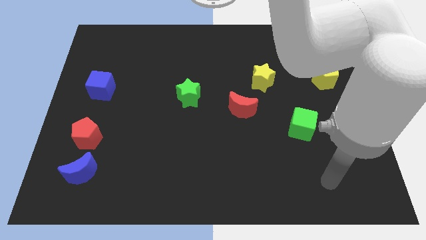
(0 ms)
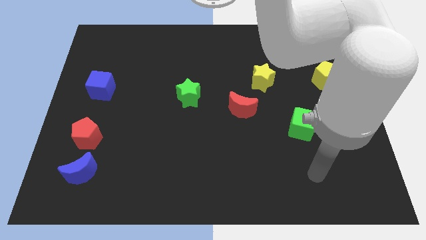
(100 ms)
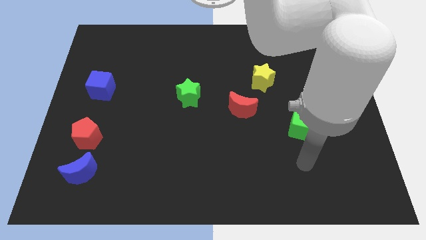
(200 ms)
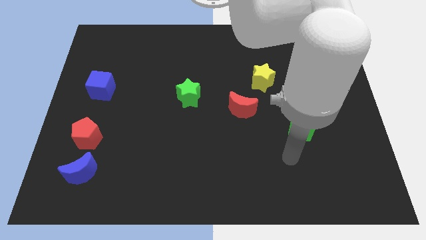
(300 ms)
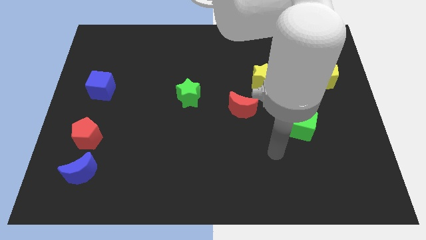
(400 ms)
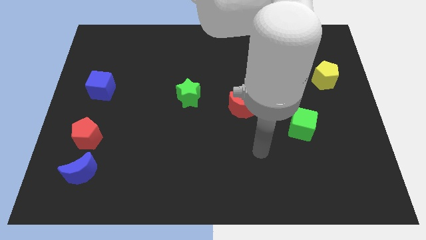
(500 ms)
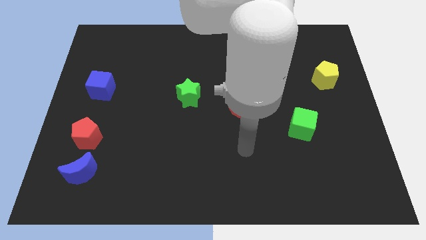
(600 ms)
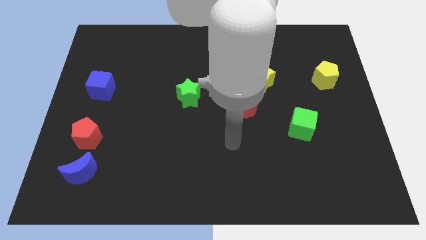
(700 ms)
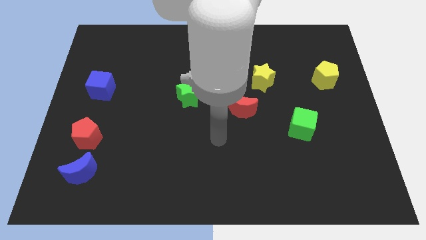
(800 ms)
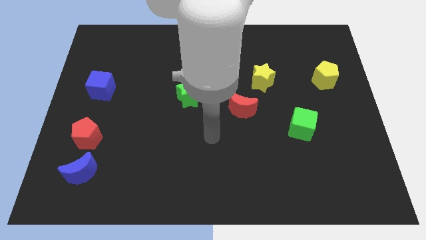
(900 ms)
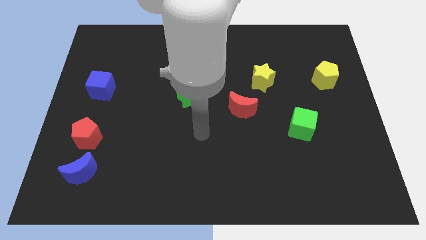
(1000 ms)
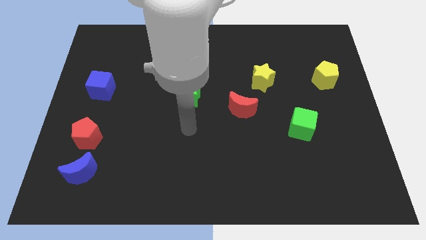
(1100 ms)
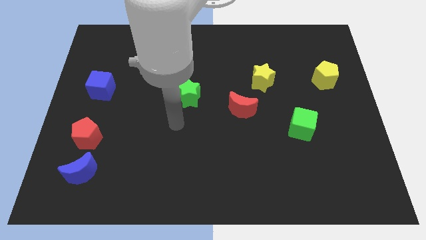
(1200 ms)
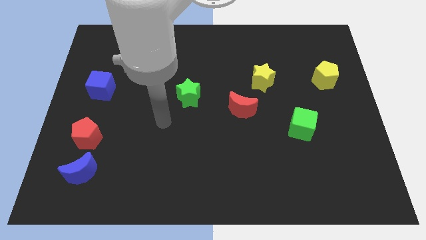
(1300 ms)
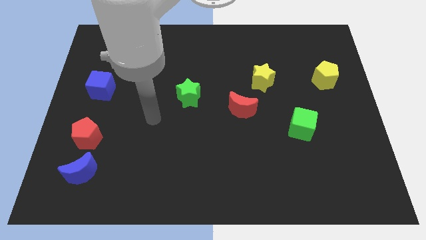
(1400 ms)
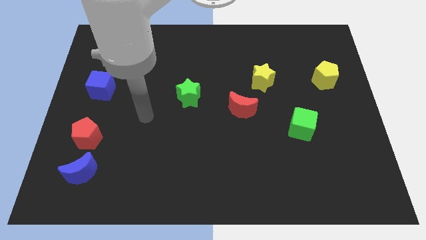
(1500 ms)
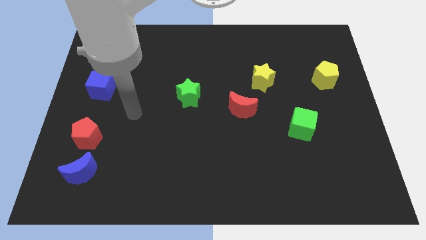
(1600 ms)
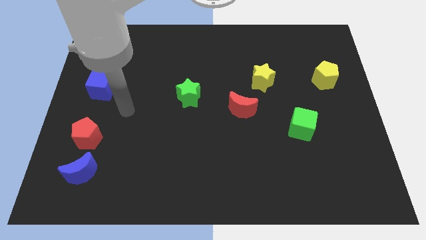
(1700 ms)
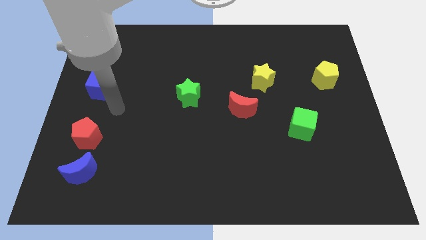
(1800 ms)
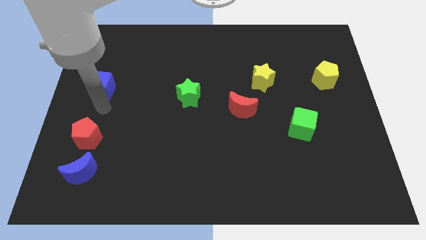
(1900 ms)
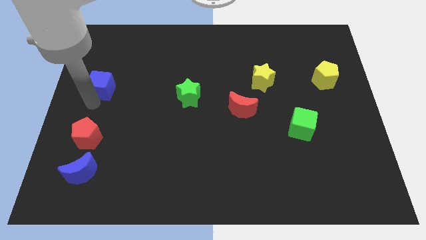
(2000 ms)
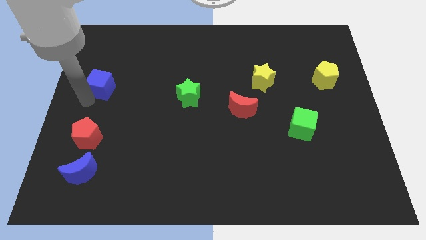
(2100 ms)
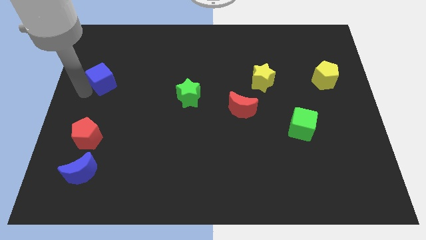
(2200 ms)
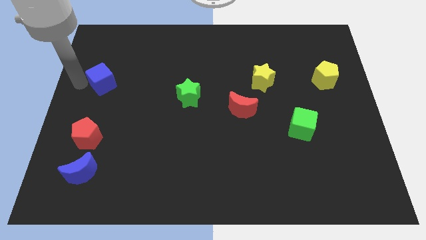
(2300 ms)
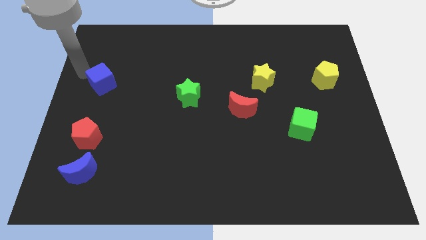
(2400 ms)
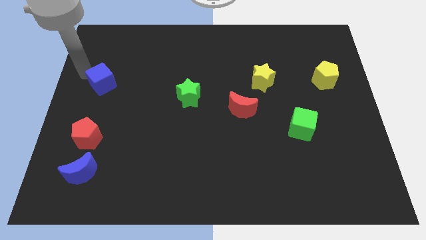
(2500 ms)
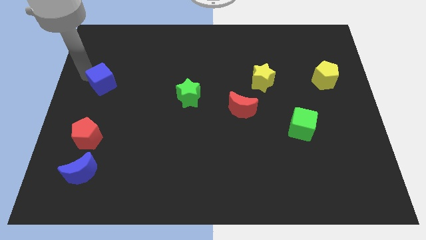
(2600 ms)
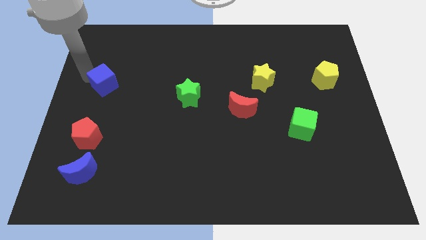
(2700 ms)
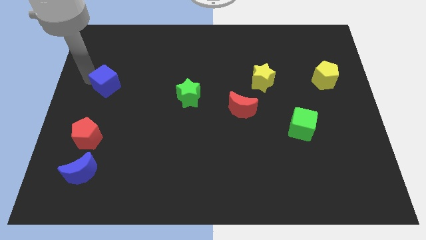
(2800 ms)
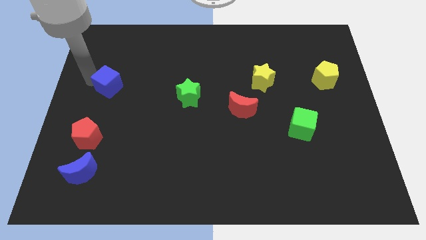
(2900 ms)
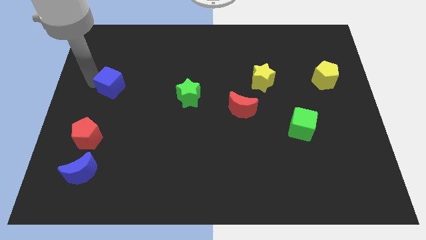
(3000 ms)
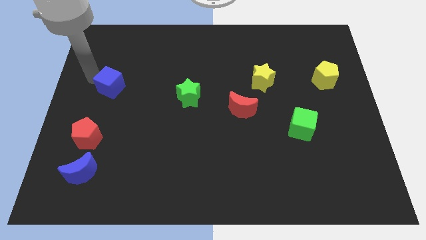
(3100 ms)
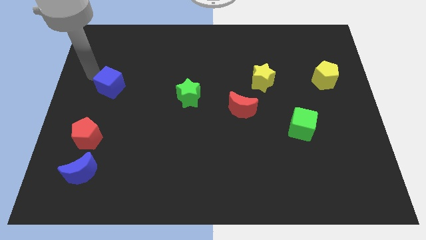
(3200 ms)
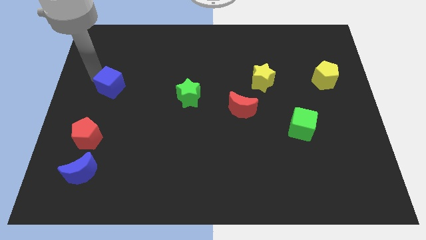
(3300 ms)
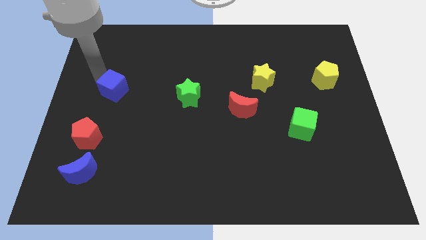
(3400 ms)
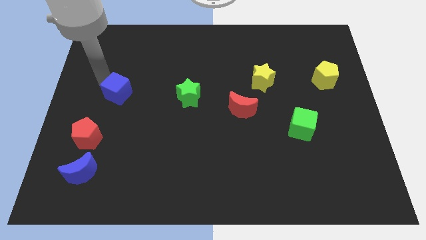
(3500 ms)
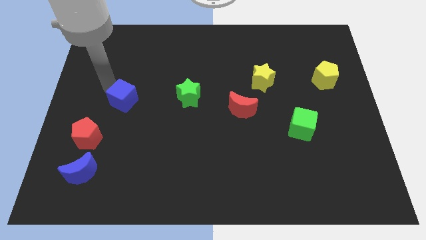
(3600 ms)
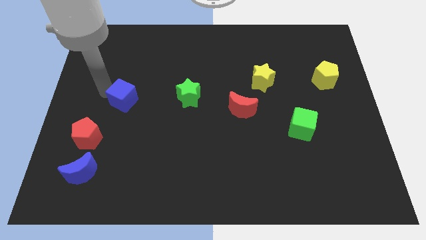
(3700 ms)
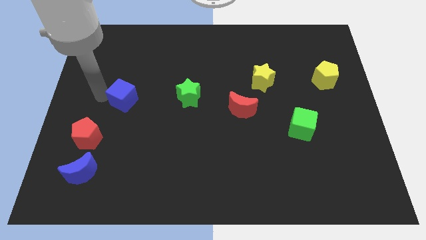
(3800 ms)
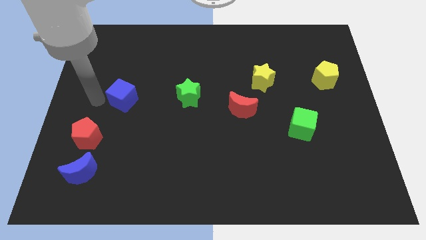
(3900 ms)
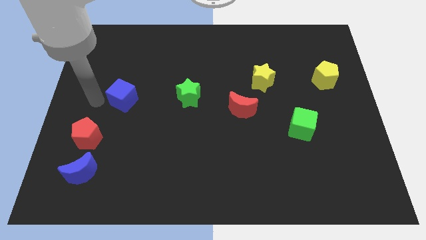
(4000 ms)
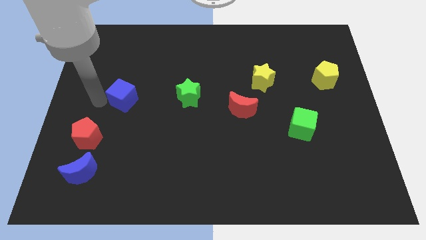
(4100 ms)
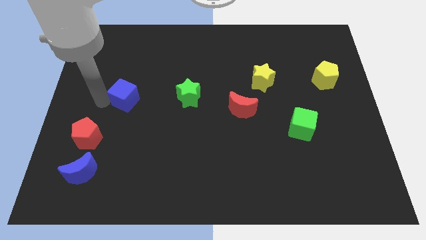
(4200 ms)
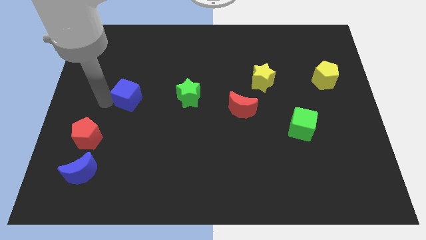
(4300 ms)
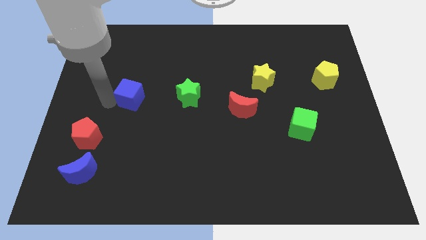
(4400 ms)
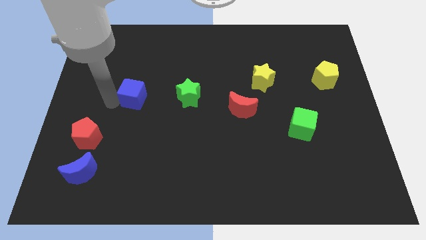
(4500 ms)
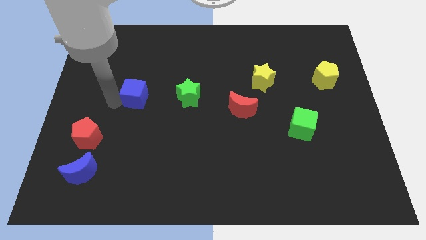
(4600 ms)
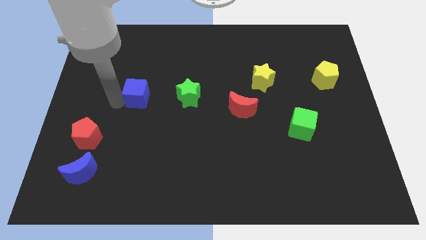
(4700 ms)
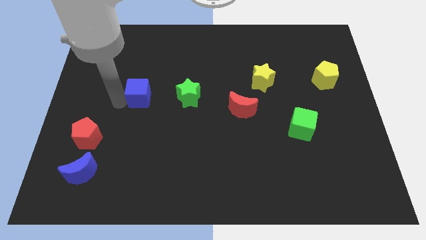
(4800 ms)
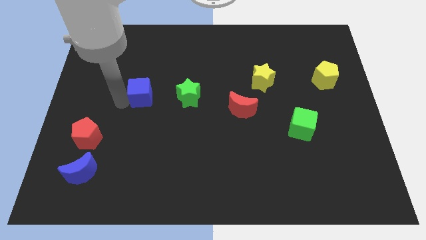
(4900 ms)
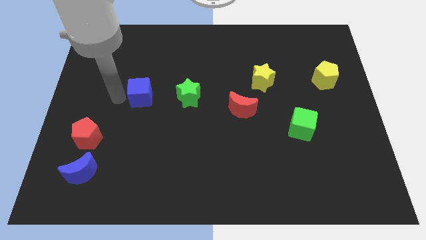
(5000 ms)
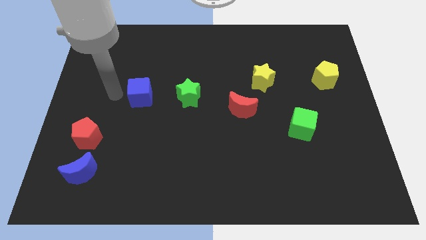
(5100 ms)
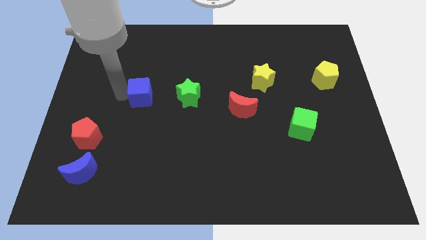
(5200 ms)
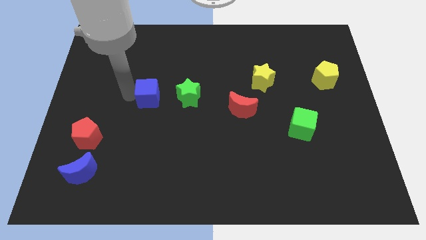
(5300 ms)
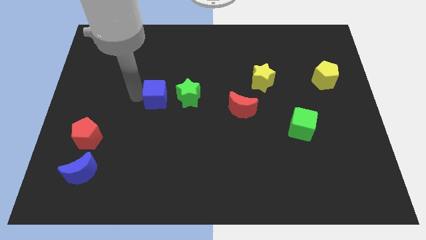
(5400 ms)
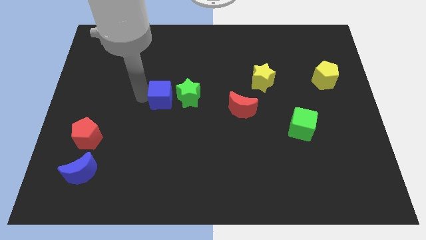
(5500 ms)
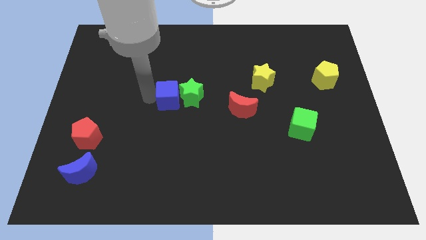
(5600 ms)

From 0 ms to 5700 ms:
slide the blue cube towards the green star
